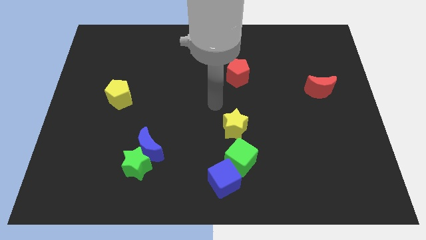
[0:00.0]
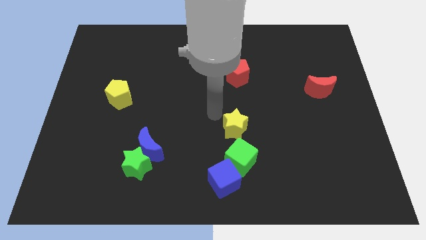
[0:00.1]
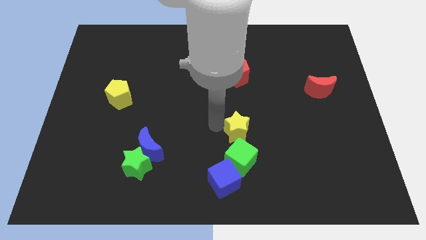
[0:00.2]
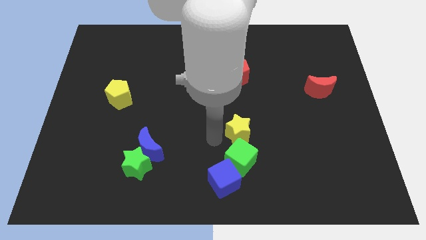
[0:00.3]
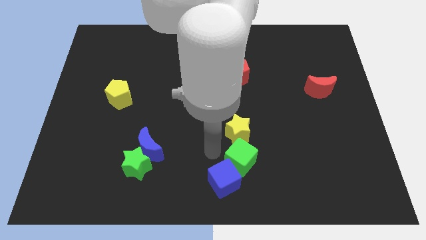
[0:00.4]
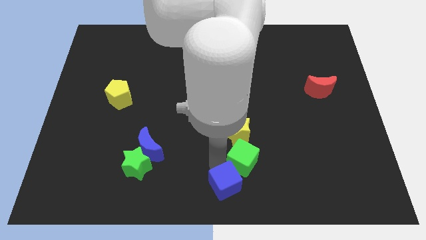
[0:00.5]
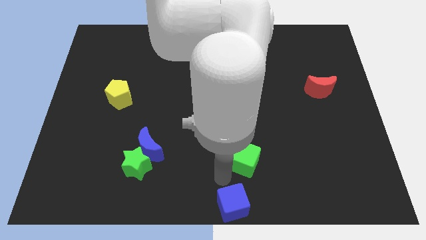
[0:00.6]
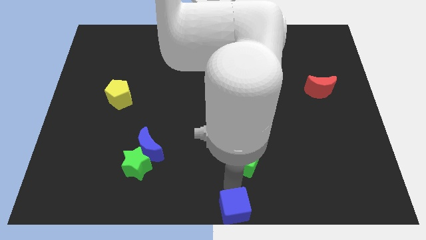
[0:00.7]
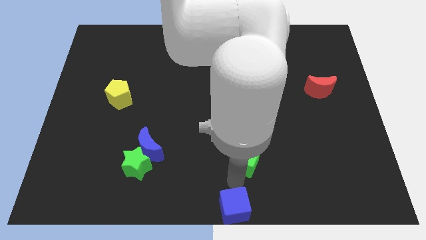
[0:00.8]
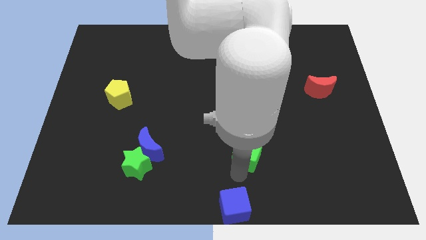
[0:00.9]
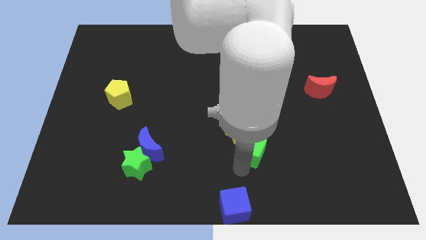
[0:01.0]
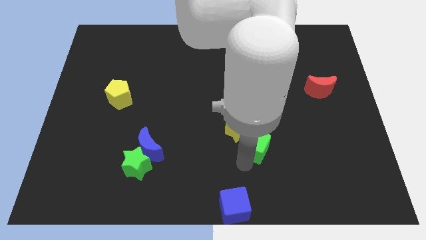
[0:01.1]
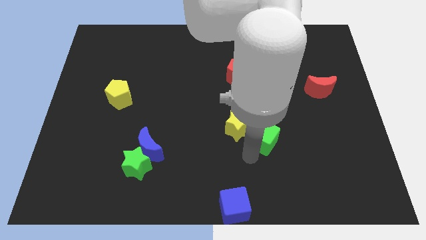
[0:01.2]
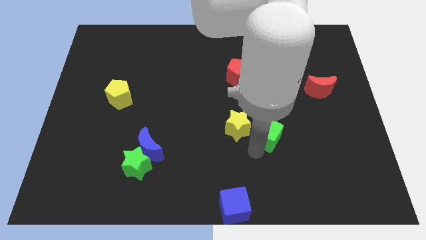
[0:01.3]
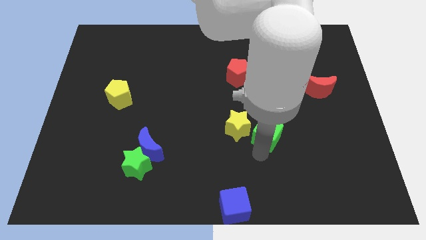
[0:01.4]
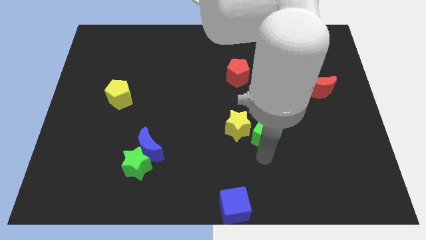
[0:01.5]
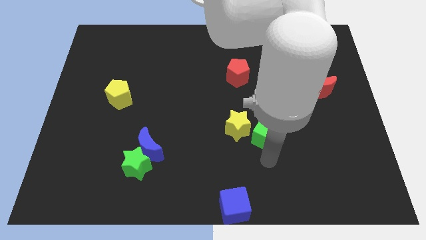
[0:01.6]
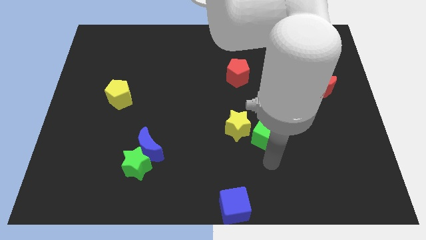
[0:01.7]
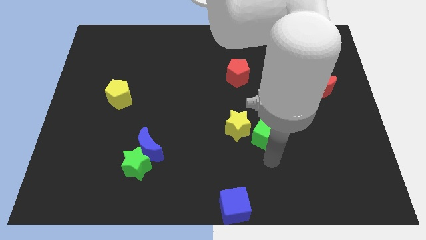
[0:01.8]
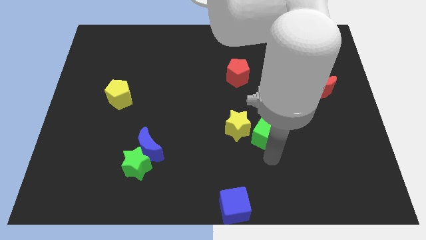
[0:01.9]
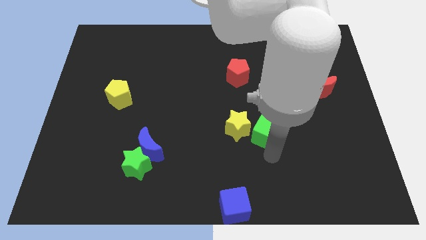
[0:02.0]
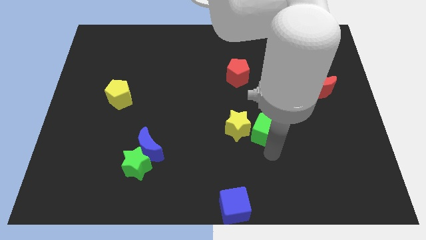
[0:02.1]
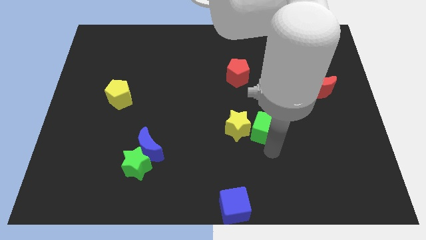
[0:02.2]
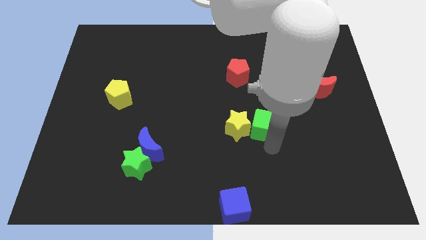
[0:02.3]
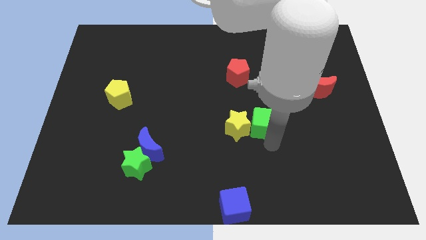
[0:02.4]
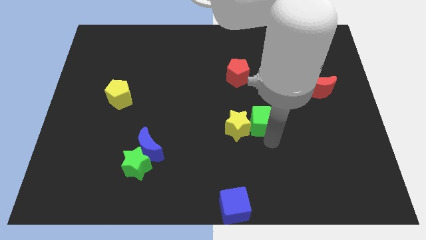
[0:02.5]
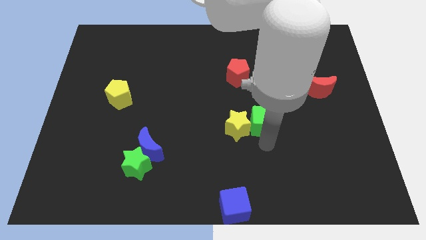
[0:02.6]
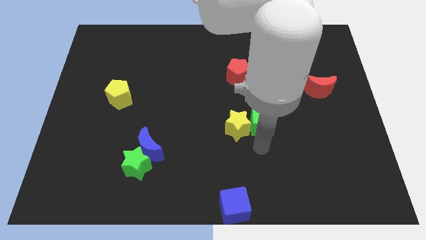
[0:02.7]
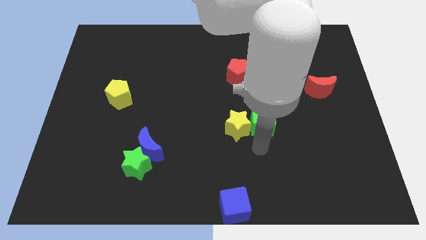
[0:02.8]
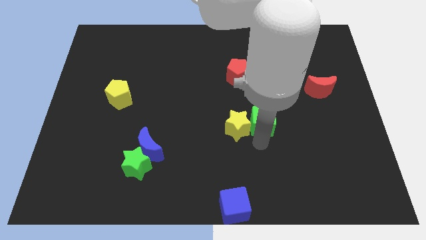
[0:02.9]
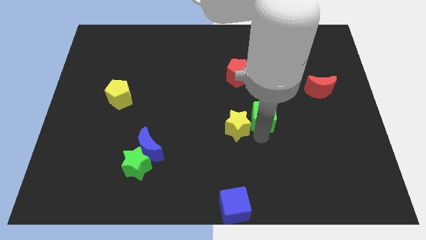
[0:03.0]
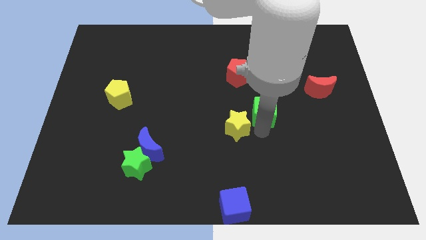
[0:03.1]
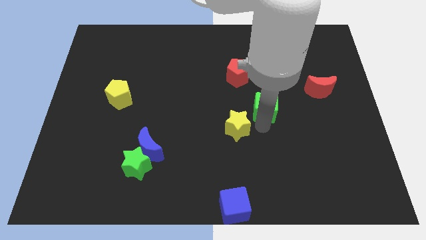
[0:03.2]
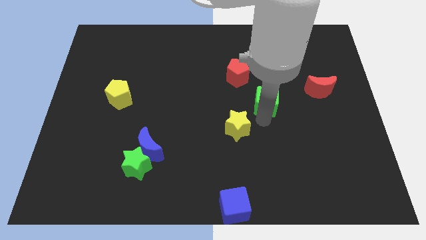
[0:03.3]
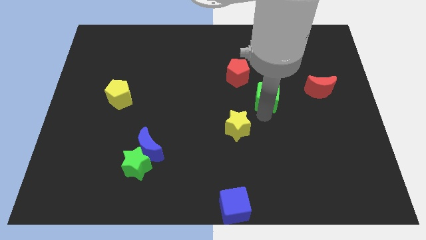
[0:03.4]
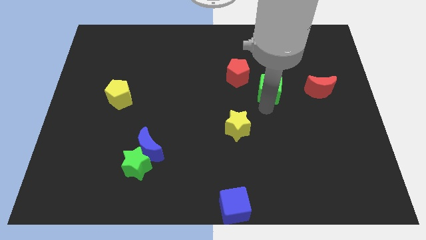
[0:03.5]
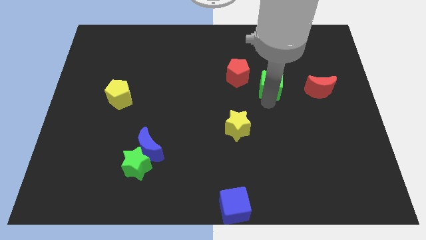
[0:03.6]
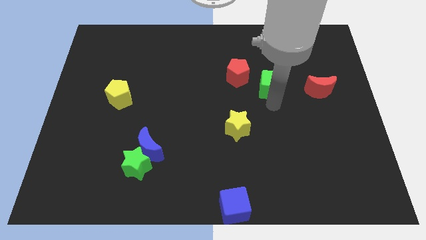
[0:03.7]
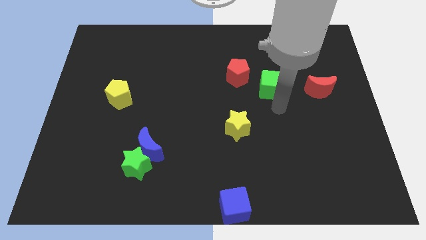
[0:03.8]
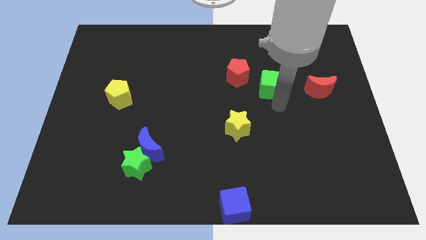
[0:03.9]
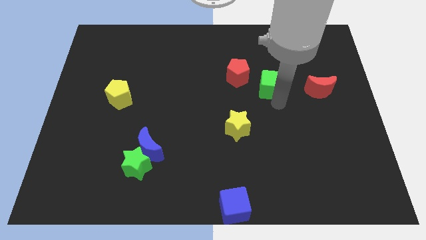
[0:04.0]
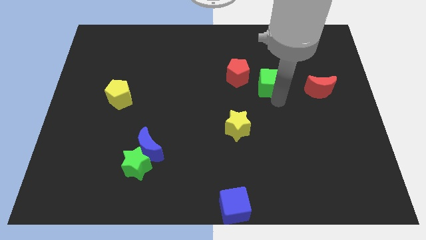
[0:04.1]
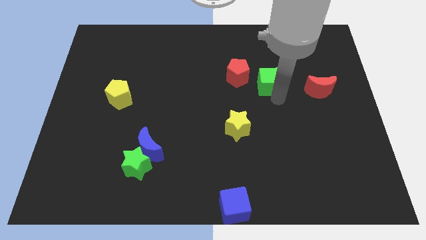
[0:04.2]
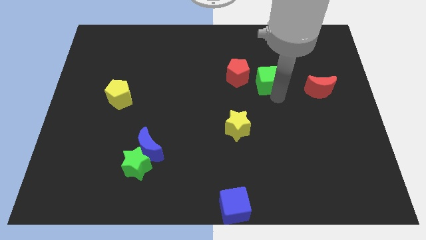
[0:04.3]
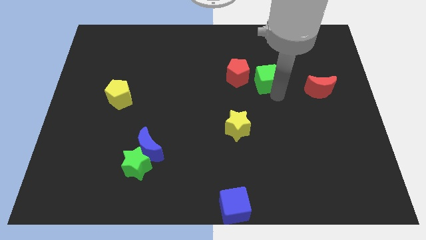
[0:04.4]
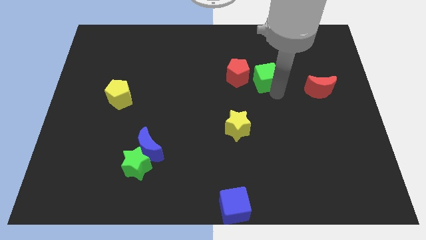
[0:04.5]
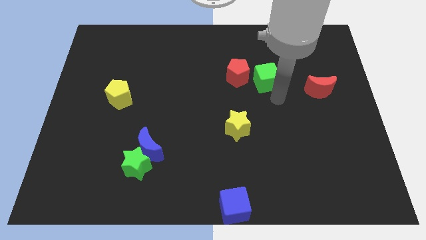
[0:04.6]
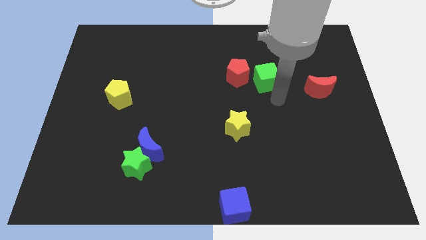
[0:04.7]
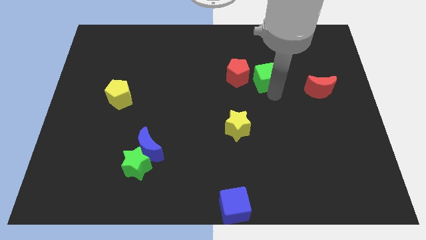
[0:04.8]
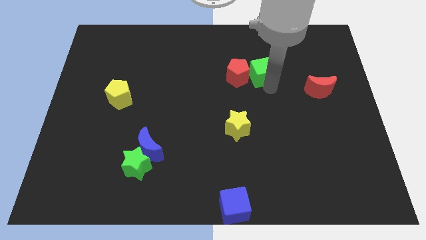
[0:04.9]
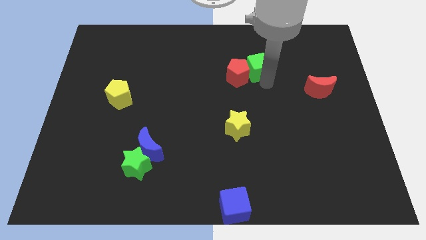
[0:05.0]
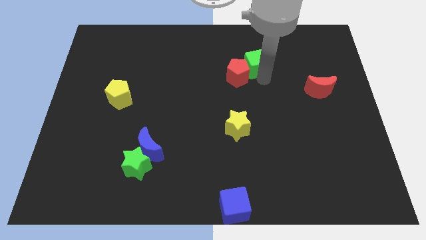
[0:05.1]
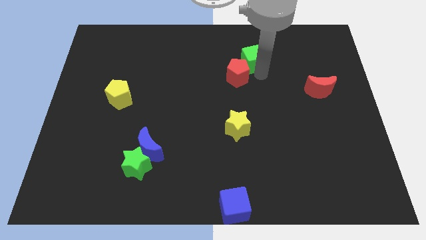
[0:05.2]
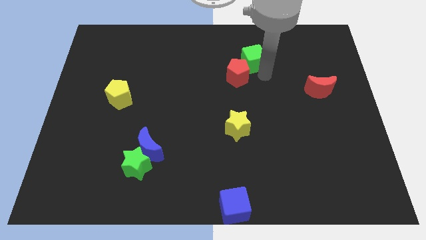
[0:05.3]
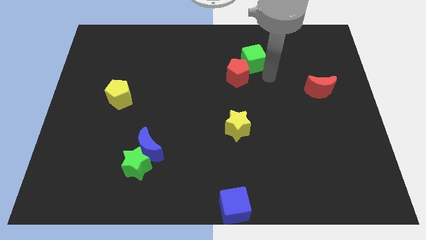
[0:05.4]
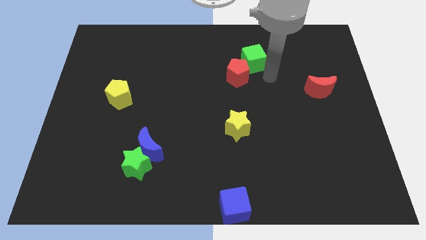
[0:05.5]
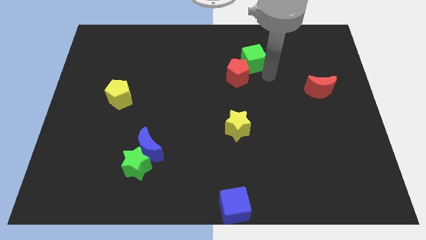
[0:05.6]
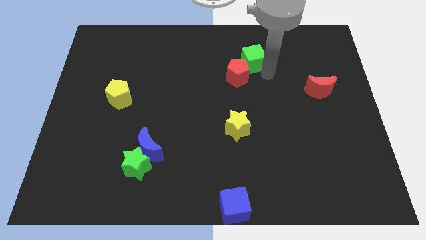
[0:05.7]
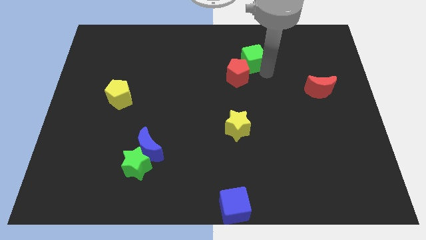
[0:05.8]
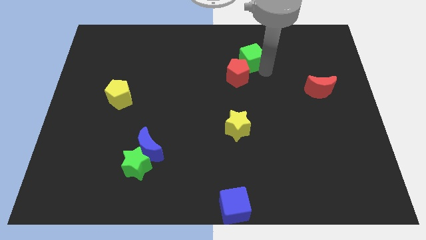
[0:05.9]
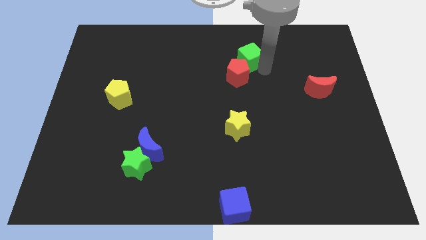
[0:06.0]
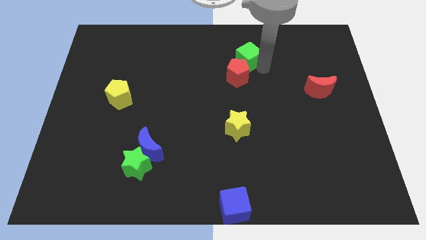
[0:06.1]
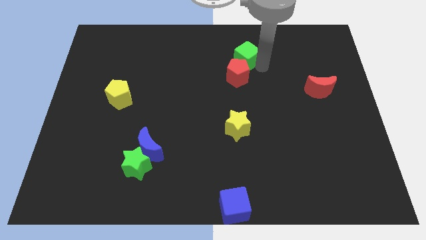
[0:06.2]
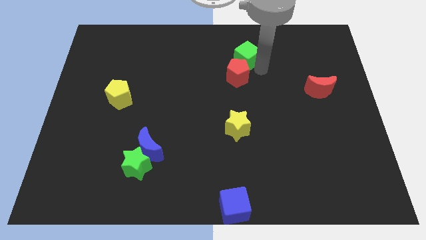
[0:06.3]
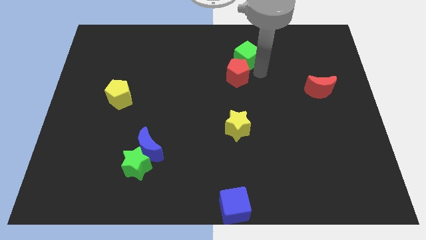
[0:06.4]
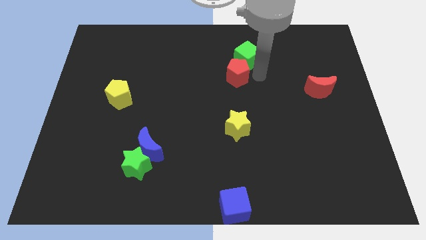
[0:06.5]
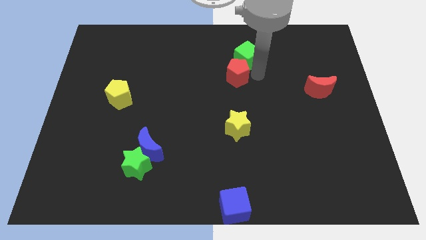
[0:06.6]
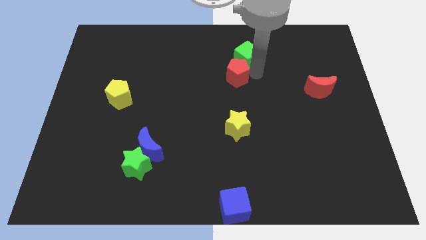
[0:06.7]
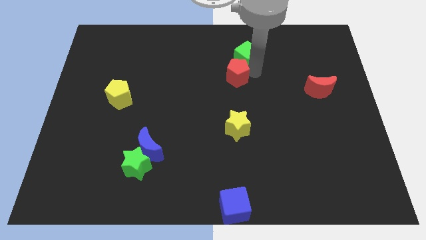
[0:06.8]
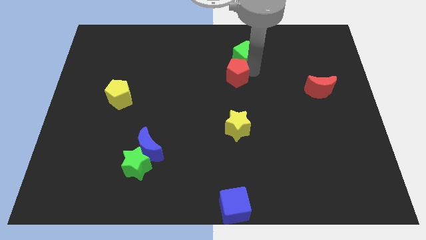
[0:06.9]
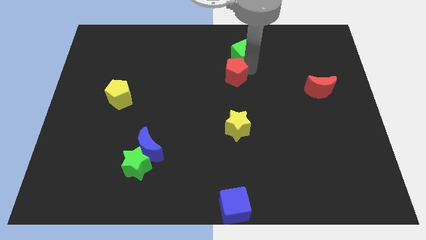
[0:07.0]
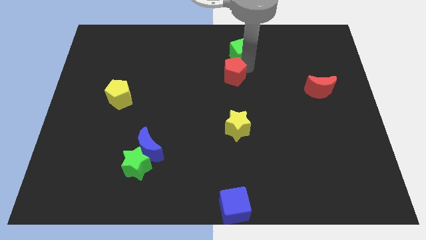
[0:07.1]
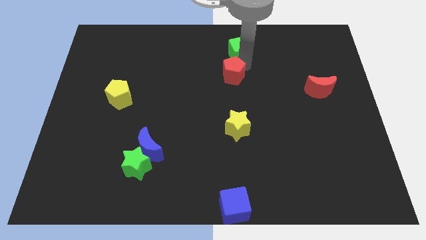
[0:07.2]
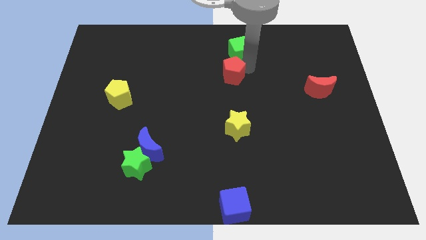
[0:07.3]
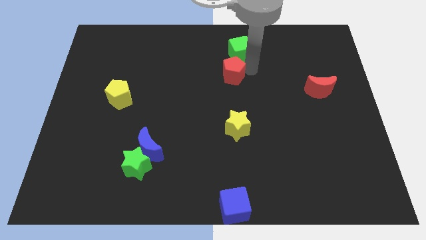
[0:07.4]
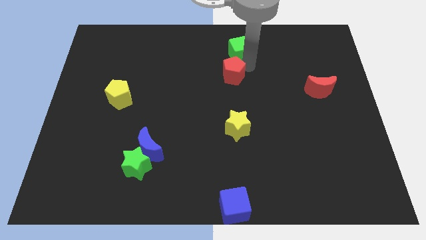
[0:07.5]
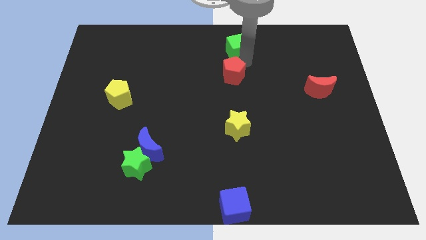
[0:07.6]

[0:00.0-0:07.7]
put the green cube to the towards your base
